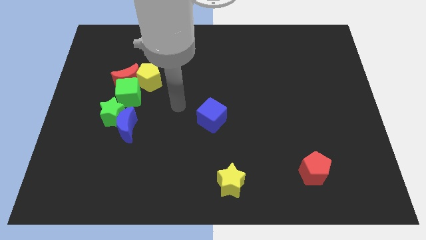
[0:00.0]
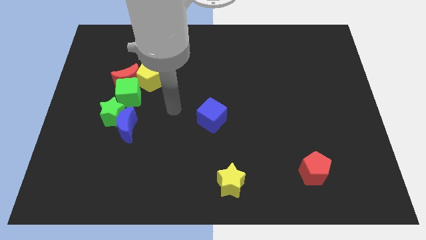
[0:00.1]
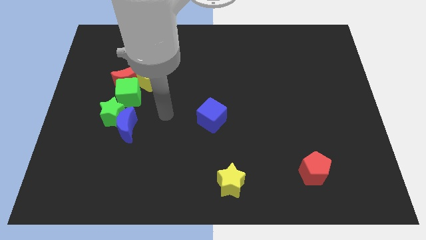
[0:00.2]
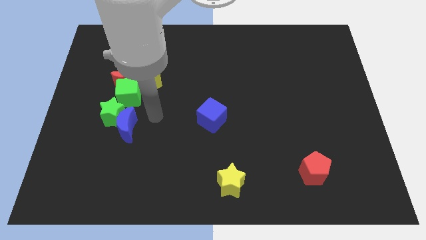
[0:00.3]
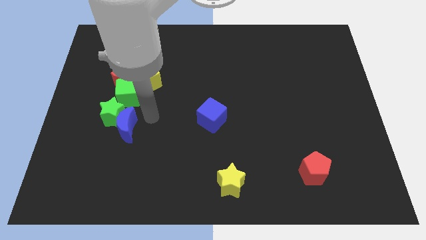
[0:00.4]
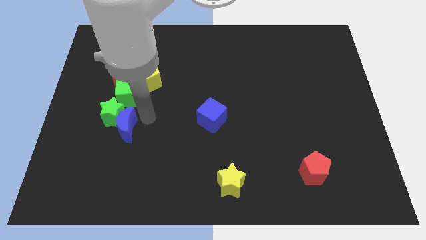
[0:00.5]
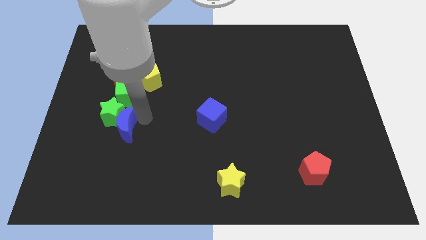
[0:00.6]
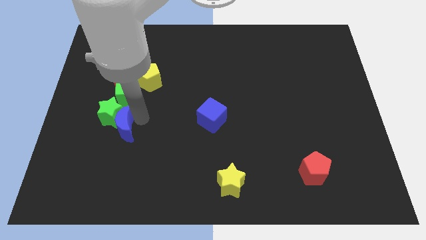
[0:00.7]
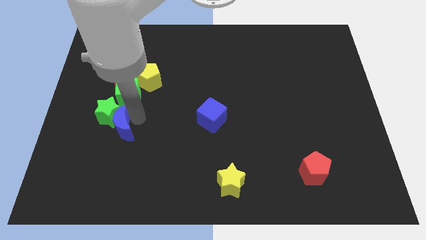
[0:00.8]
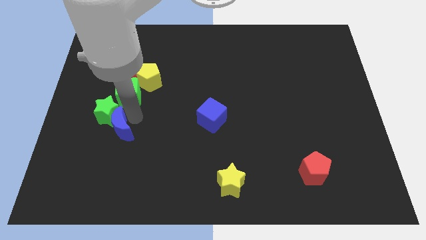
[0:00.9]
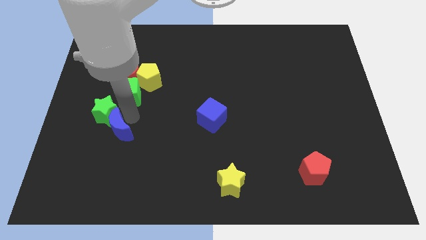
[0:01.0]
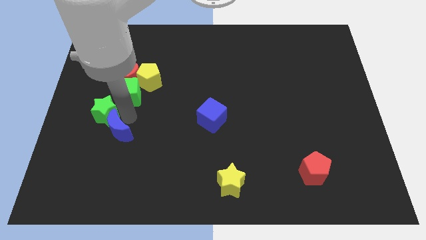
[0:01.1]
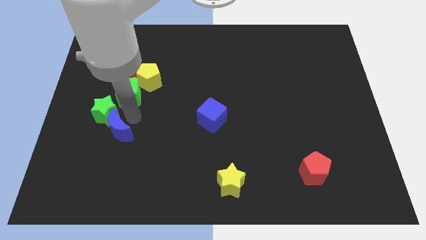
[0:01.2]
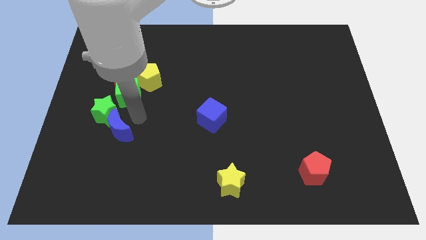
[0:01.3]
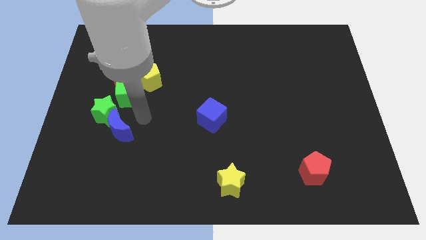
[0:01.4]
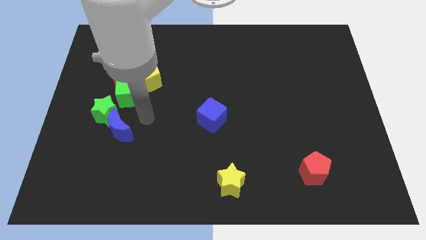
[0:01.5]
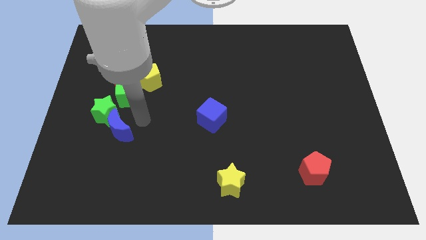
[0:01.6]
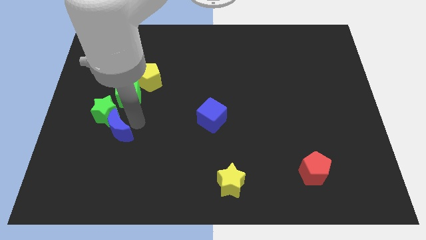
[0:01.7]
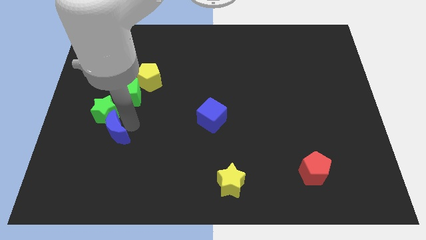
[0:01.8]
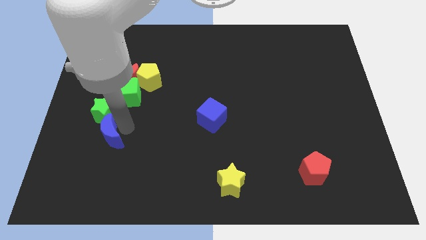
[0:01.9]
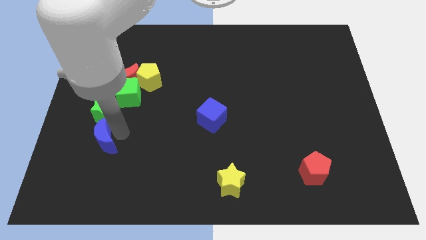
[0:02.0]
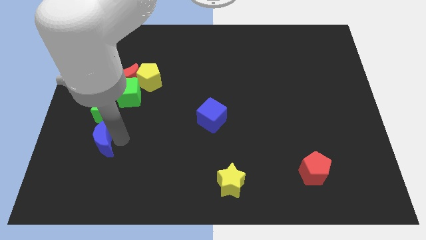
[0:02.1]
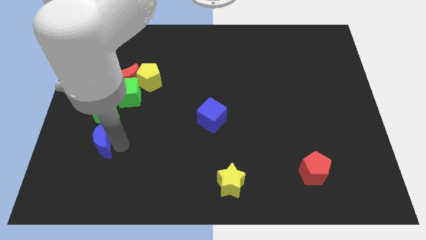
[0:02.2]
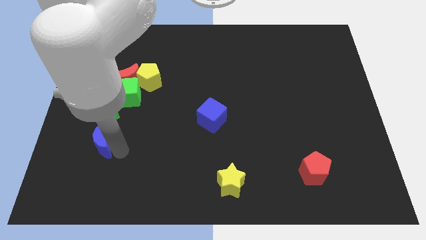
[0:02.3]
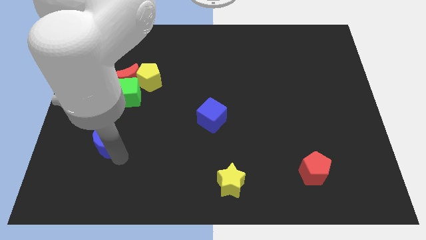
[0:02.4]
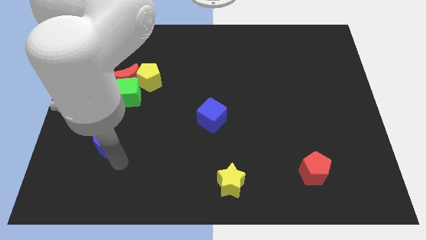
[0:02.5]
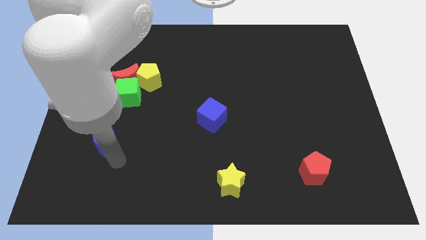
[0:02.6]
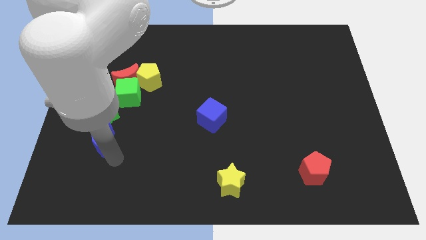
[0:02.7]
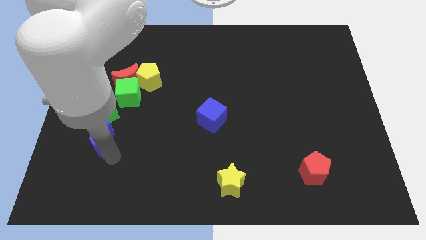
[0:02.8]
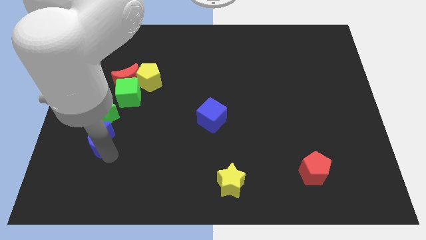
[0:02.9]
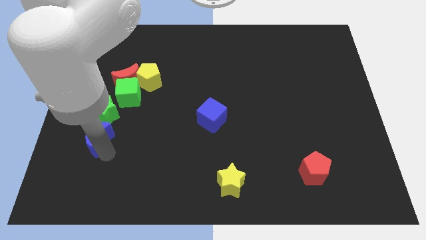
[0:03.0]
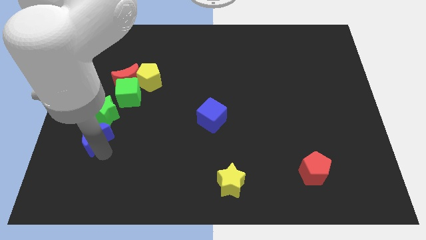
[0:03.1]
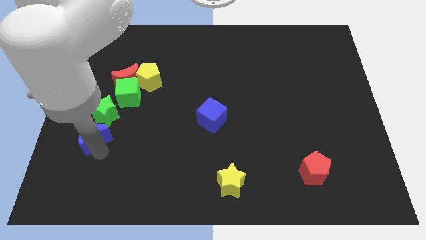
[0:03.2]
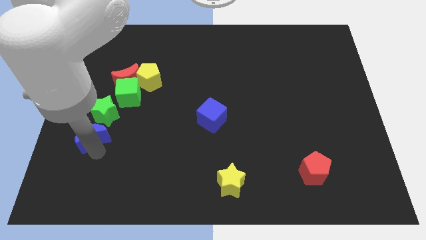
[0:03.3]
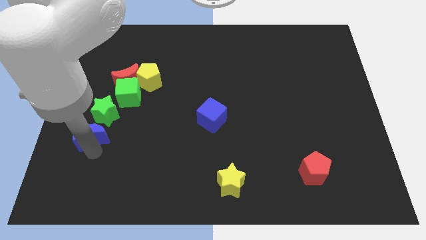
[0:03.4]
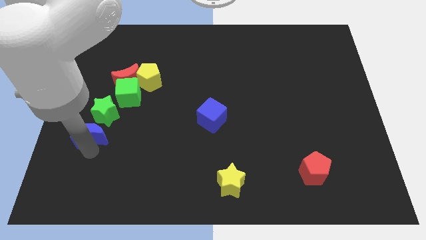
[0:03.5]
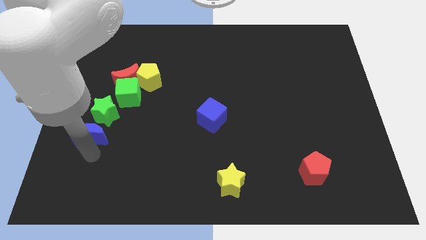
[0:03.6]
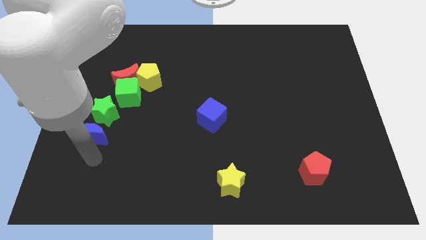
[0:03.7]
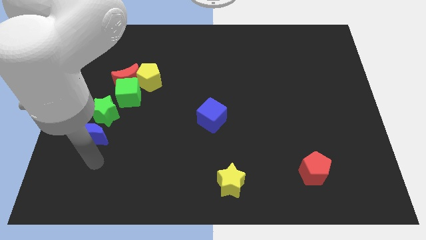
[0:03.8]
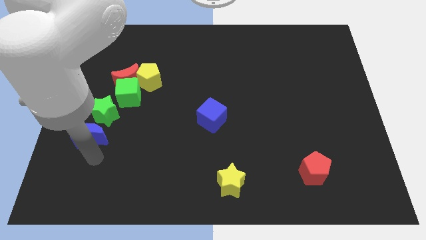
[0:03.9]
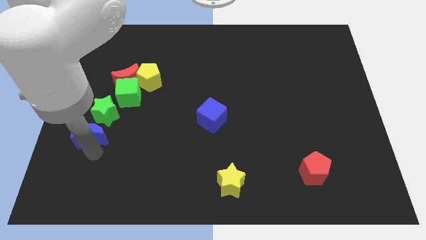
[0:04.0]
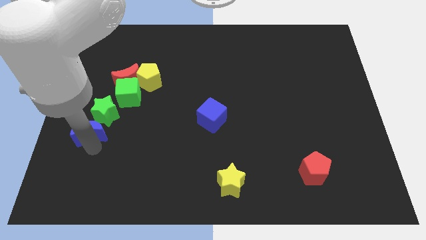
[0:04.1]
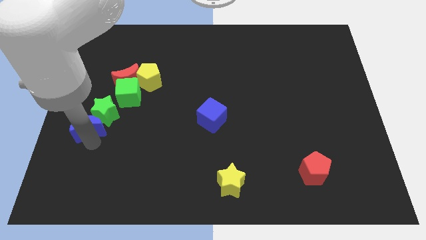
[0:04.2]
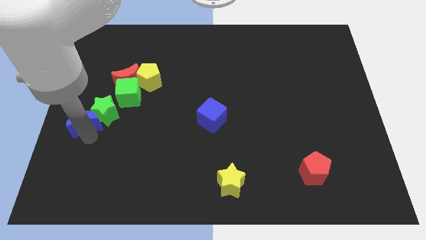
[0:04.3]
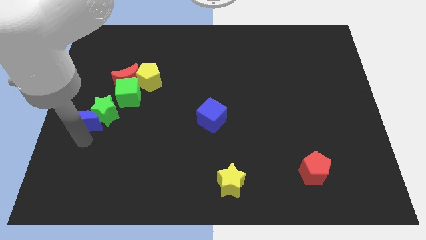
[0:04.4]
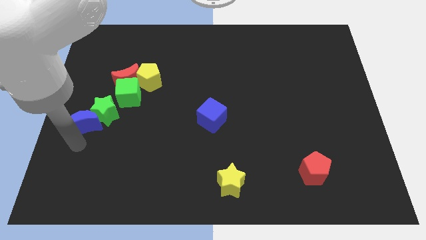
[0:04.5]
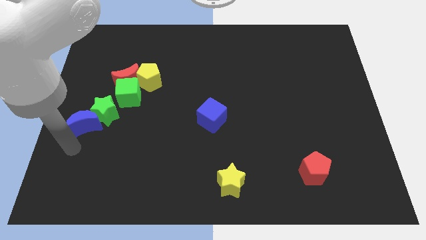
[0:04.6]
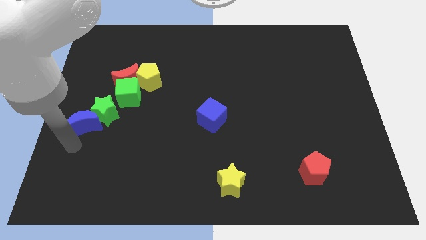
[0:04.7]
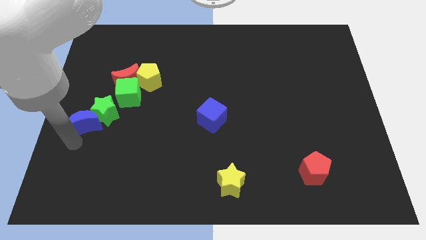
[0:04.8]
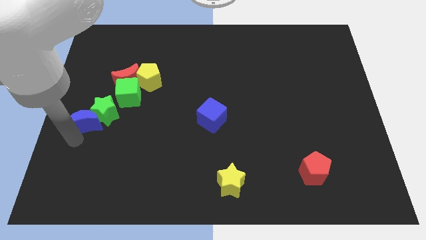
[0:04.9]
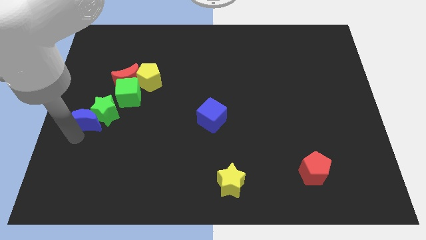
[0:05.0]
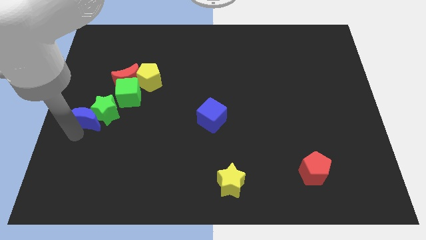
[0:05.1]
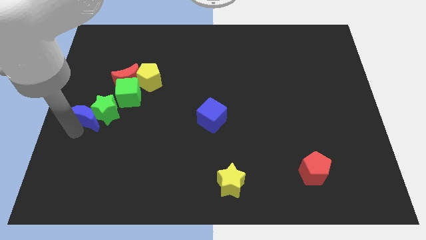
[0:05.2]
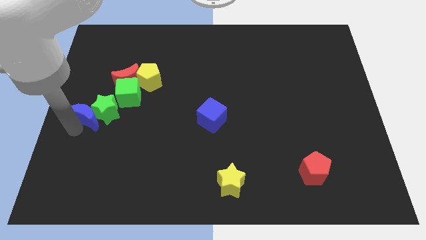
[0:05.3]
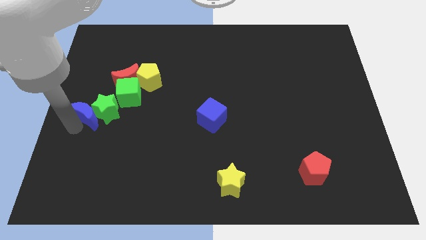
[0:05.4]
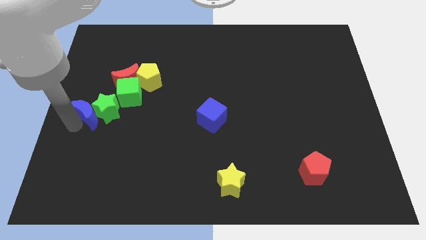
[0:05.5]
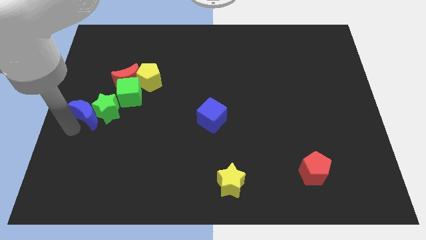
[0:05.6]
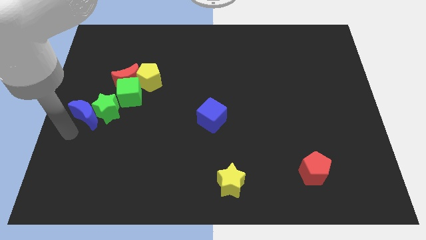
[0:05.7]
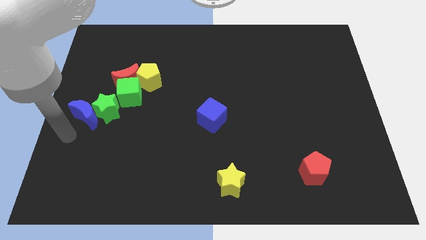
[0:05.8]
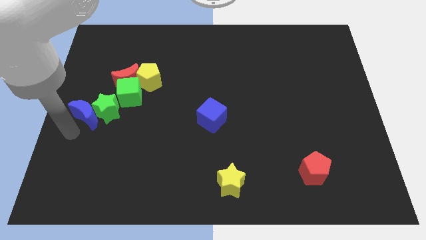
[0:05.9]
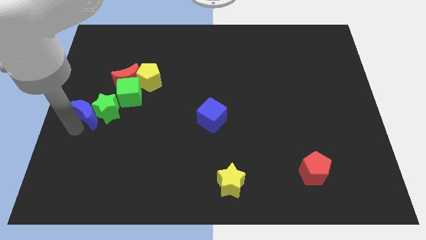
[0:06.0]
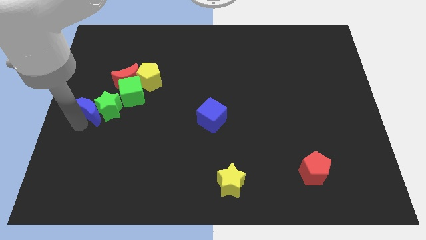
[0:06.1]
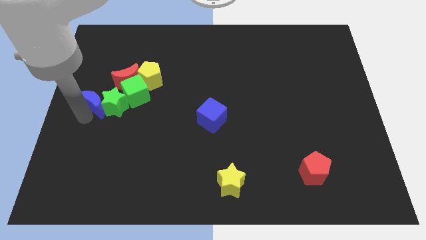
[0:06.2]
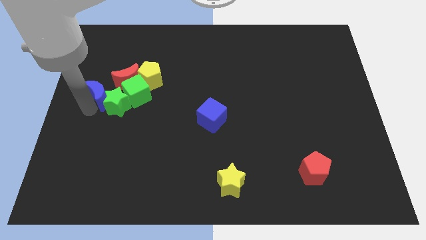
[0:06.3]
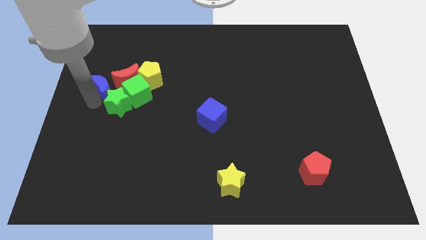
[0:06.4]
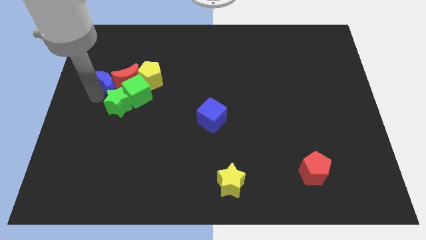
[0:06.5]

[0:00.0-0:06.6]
slide the blue moon towards the red moon
